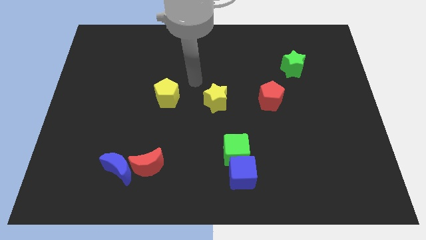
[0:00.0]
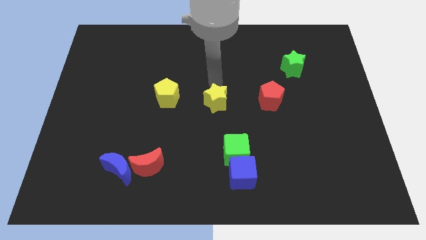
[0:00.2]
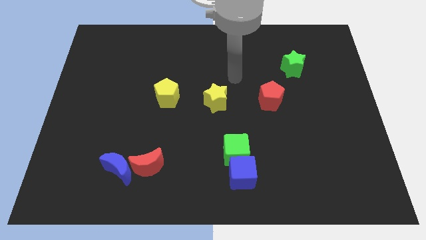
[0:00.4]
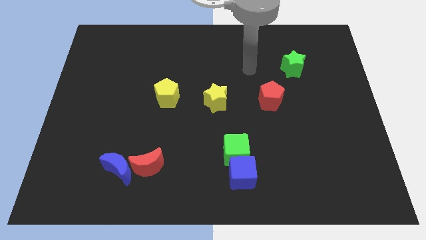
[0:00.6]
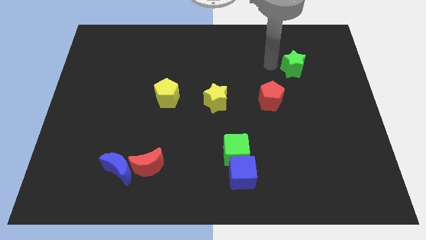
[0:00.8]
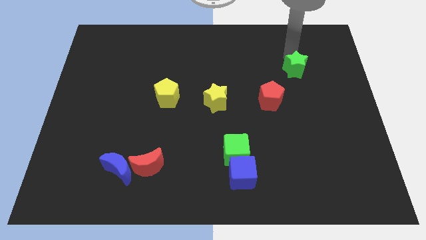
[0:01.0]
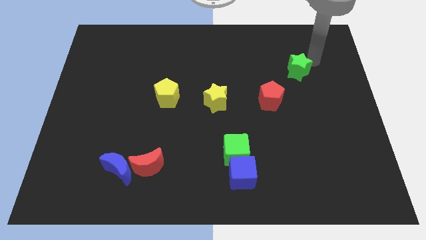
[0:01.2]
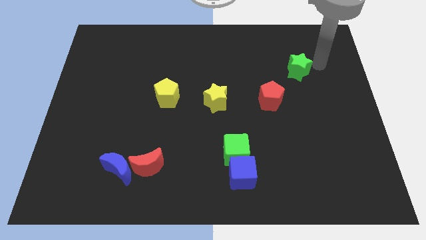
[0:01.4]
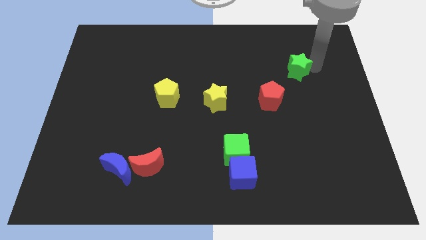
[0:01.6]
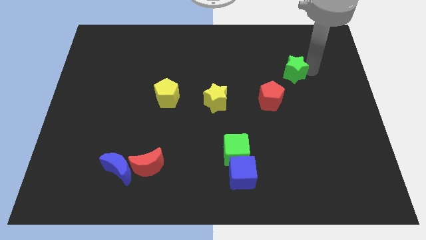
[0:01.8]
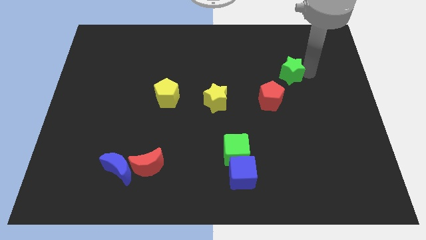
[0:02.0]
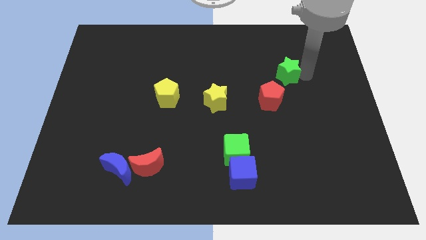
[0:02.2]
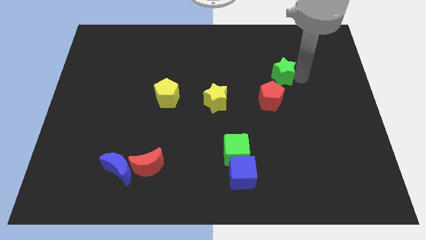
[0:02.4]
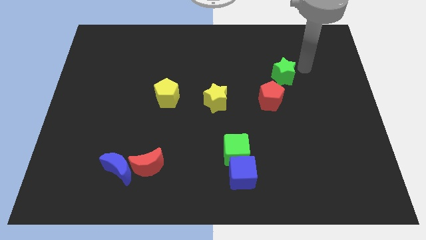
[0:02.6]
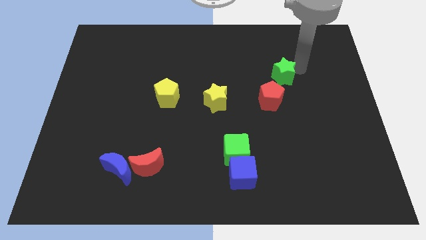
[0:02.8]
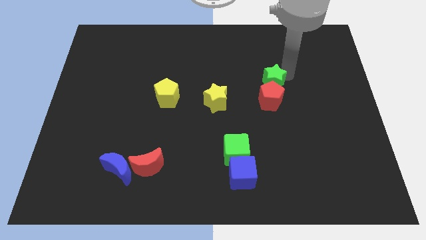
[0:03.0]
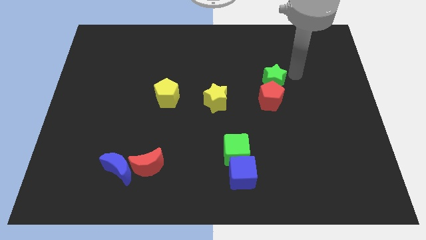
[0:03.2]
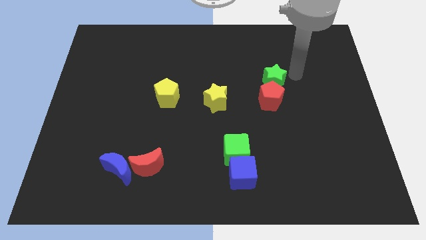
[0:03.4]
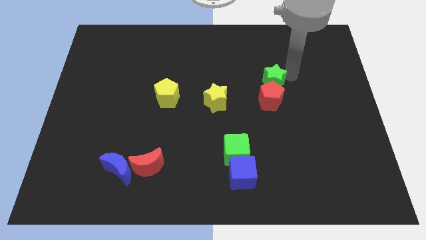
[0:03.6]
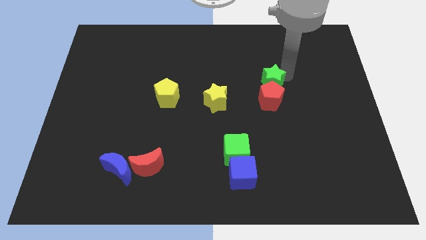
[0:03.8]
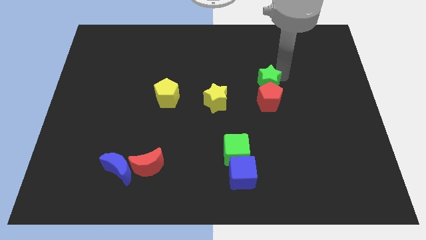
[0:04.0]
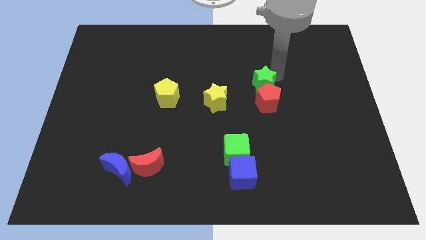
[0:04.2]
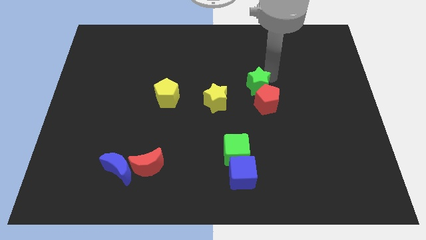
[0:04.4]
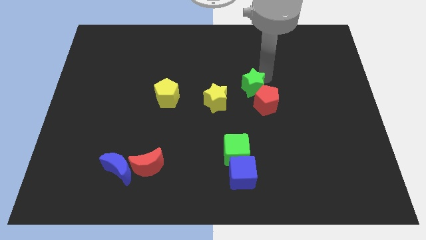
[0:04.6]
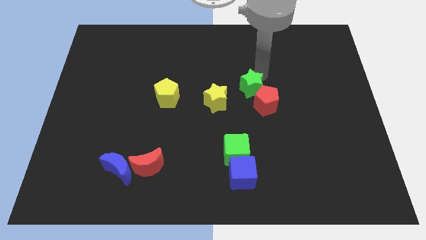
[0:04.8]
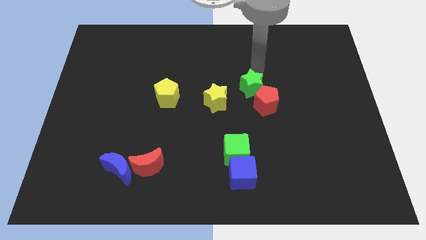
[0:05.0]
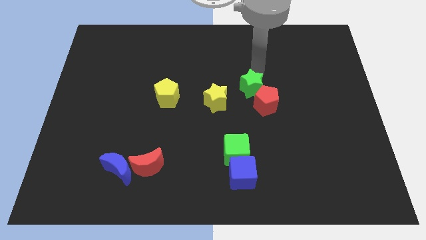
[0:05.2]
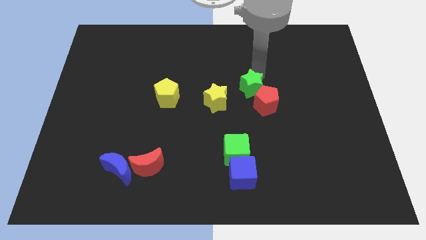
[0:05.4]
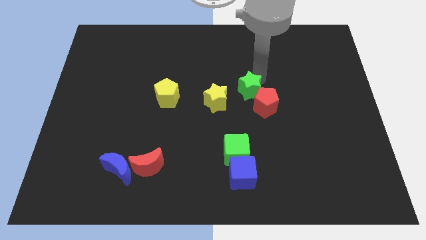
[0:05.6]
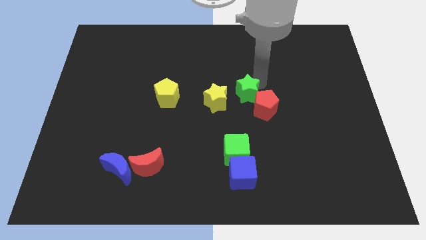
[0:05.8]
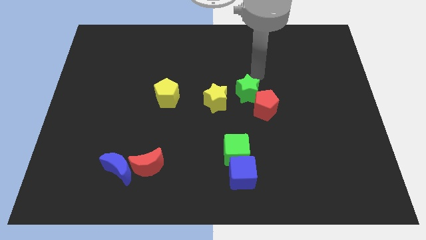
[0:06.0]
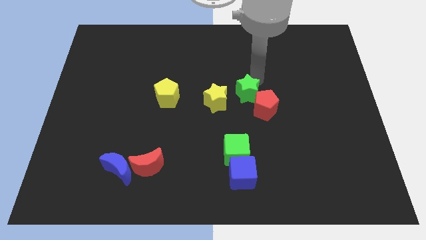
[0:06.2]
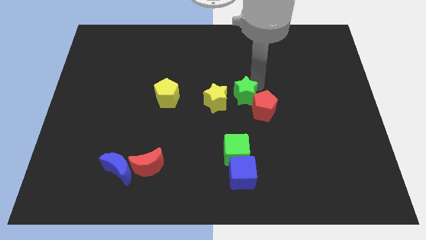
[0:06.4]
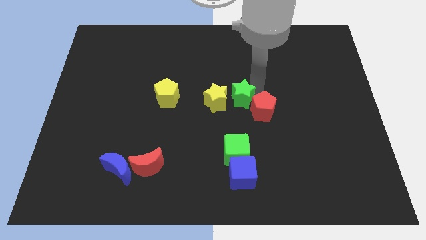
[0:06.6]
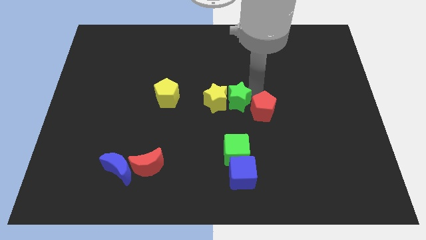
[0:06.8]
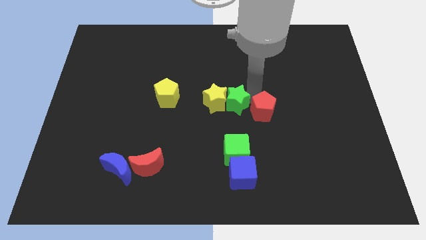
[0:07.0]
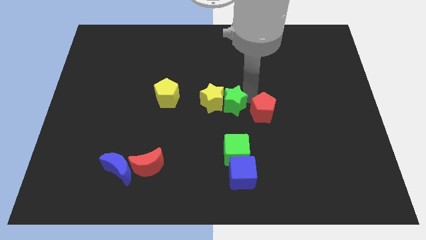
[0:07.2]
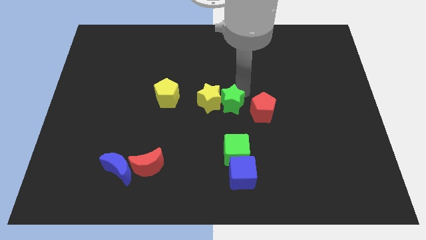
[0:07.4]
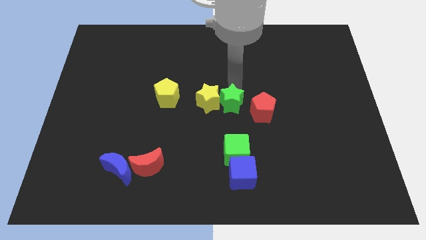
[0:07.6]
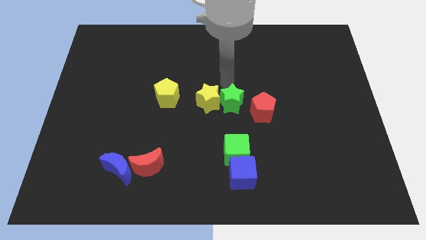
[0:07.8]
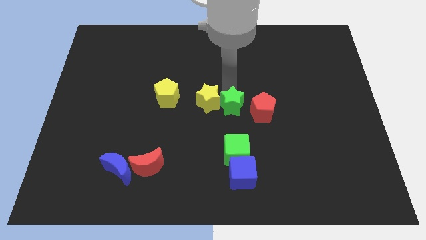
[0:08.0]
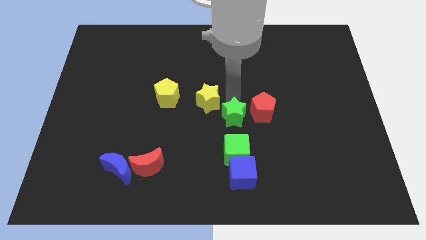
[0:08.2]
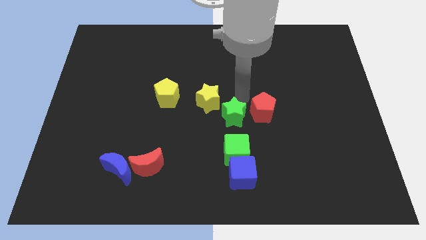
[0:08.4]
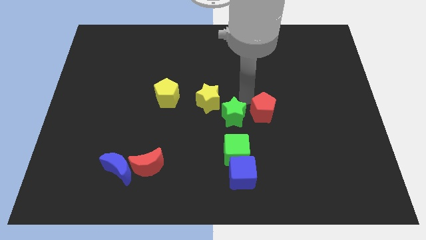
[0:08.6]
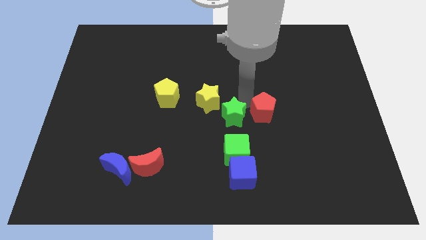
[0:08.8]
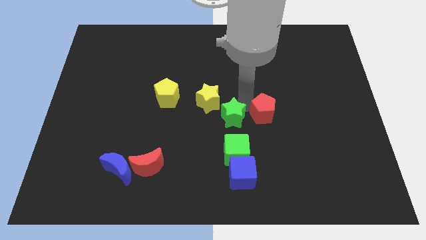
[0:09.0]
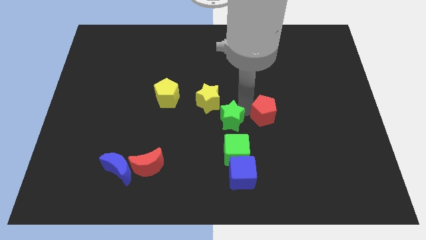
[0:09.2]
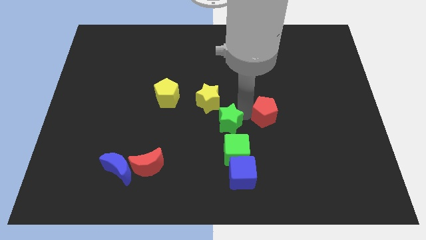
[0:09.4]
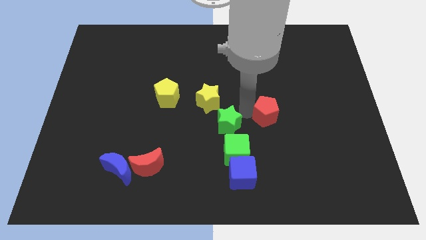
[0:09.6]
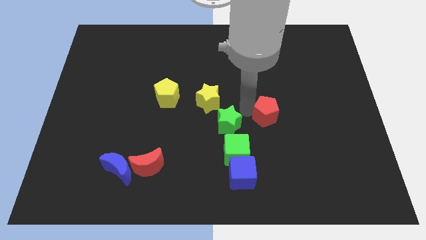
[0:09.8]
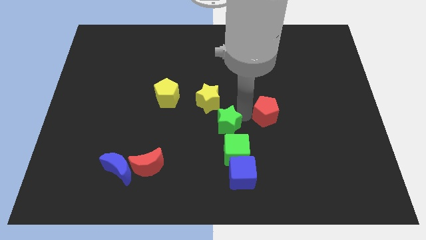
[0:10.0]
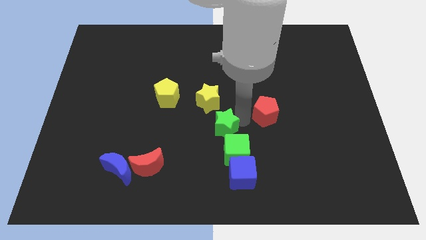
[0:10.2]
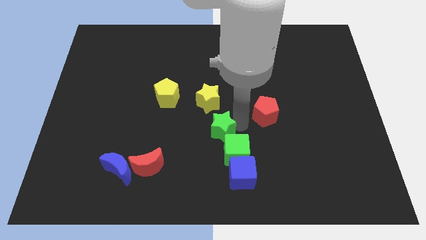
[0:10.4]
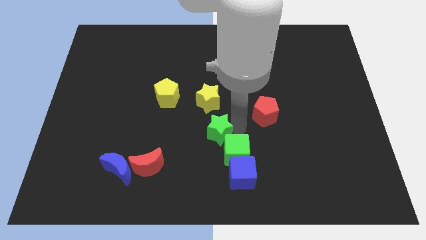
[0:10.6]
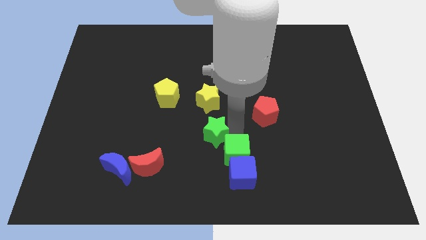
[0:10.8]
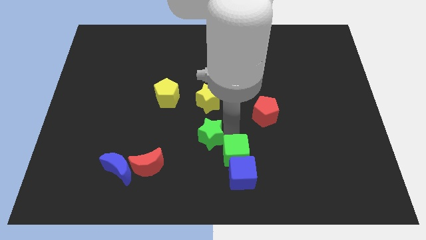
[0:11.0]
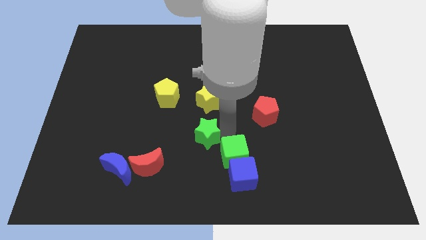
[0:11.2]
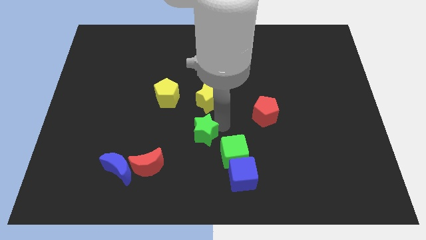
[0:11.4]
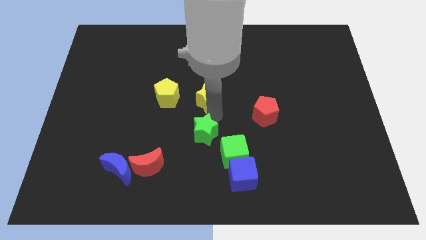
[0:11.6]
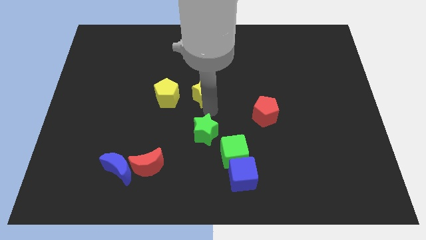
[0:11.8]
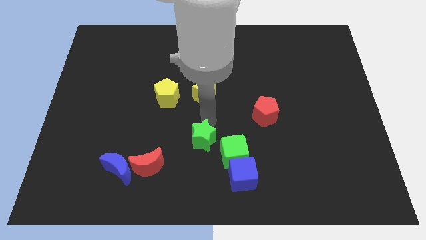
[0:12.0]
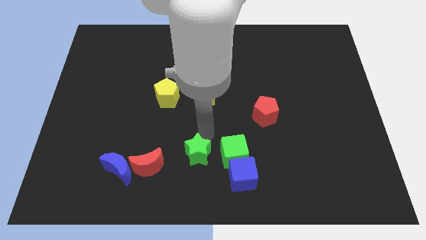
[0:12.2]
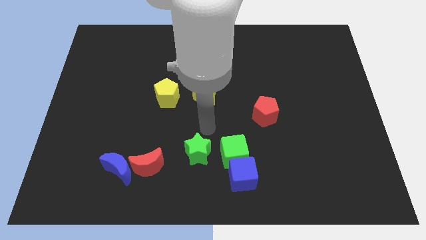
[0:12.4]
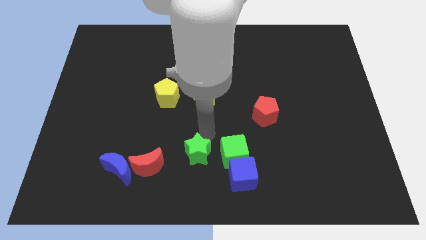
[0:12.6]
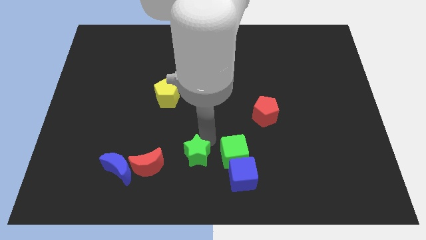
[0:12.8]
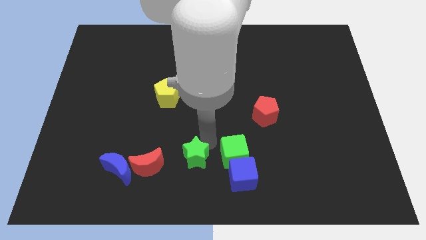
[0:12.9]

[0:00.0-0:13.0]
move the green star to the left side of the blue cube

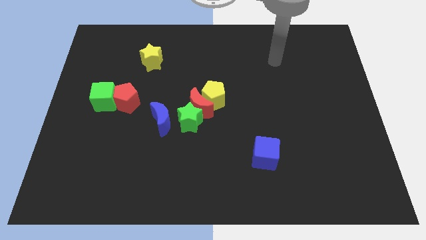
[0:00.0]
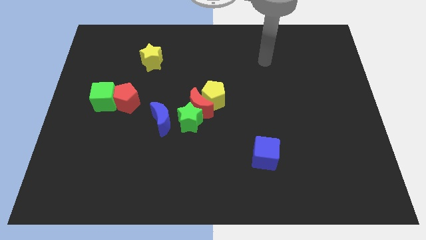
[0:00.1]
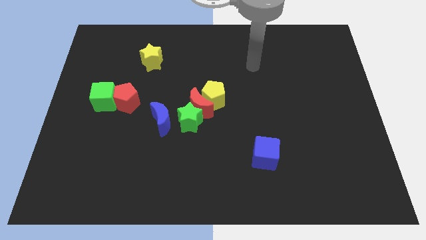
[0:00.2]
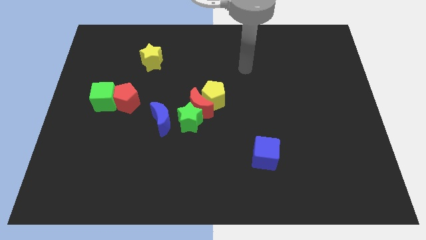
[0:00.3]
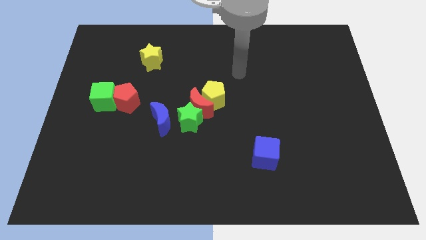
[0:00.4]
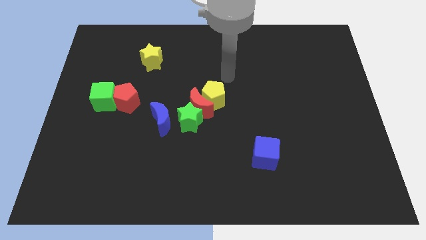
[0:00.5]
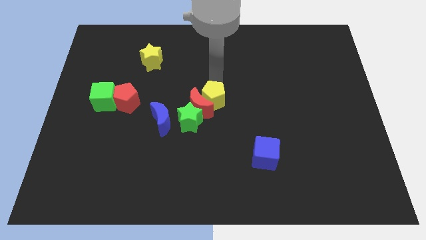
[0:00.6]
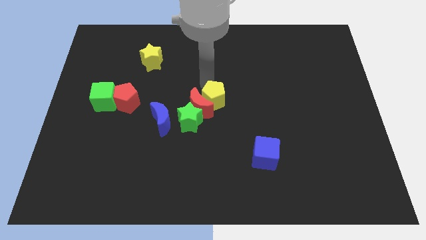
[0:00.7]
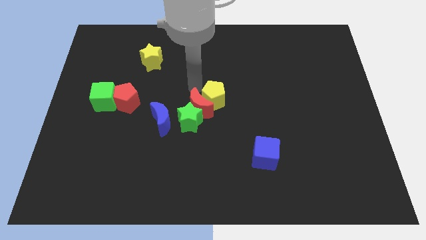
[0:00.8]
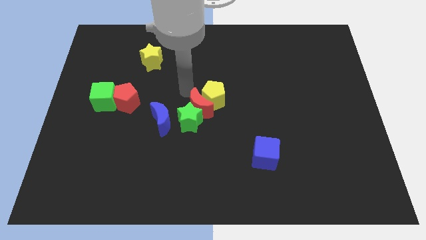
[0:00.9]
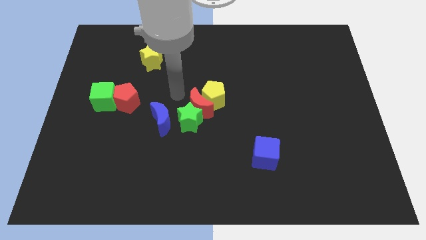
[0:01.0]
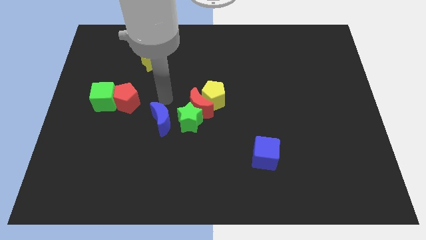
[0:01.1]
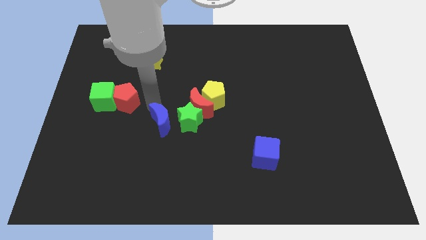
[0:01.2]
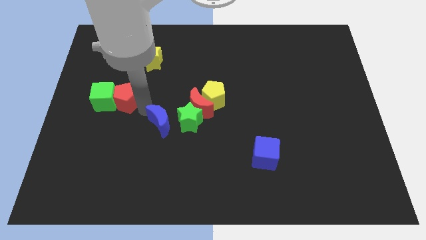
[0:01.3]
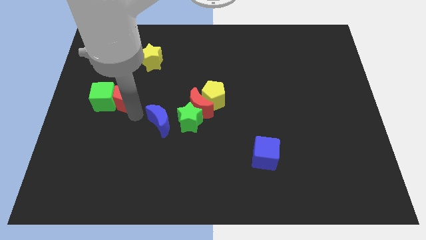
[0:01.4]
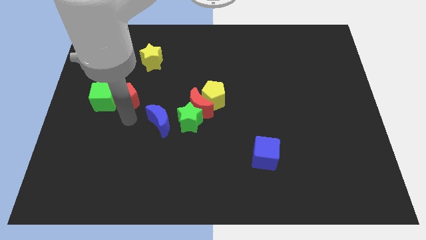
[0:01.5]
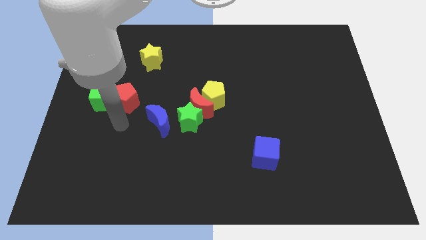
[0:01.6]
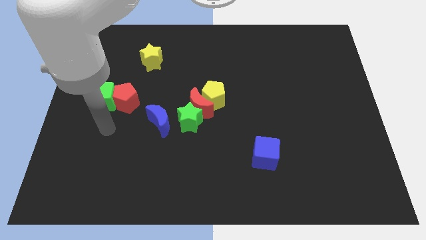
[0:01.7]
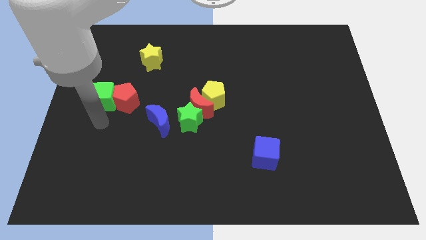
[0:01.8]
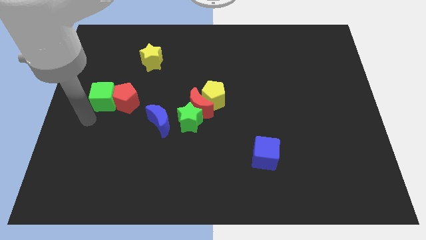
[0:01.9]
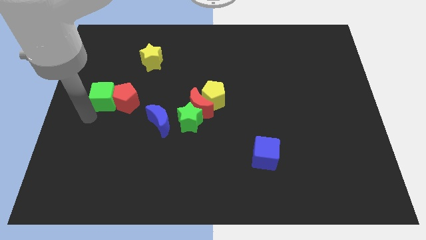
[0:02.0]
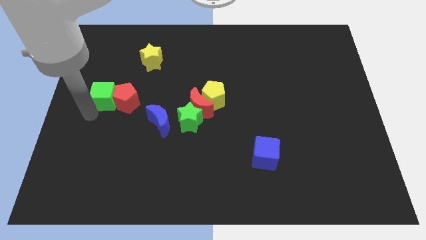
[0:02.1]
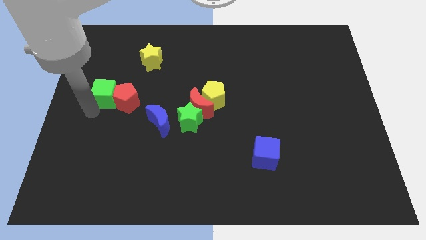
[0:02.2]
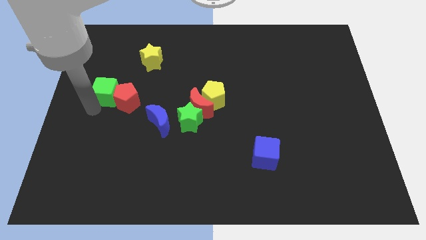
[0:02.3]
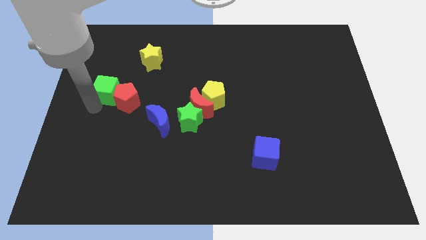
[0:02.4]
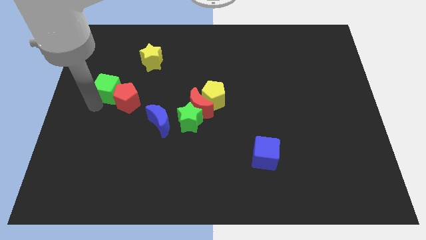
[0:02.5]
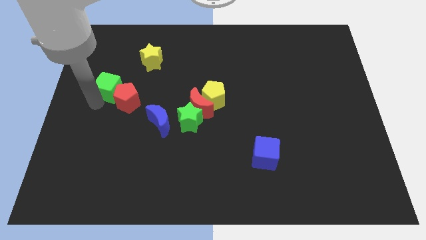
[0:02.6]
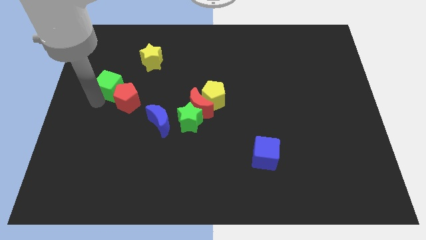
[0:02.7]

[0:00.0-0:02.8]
put the green cube to the top side of the red pentagon
